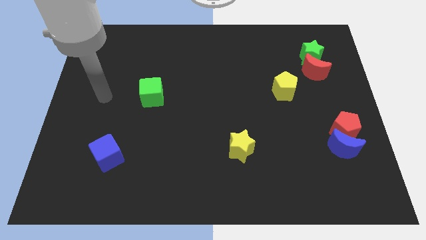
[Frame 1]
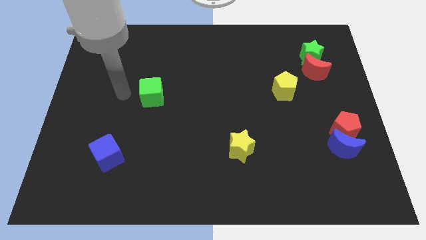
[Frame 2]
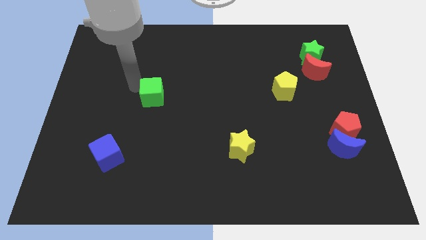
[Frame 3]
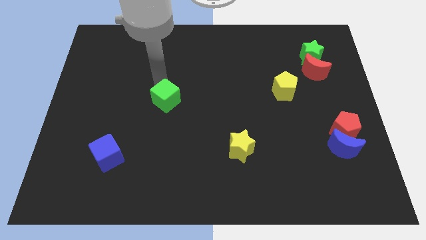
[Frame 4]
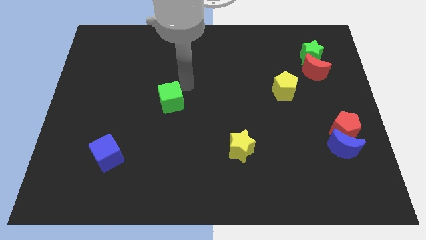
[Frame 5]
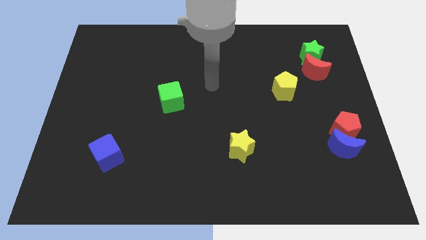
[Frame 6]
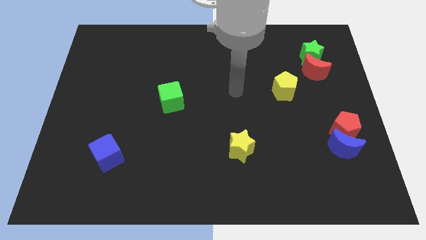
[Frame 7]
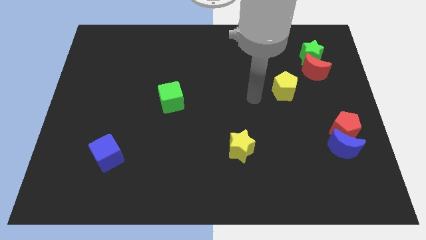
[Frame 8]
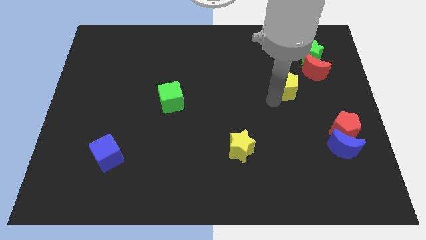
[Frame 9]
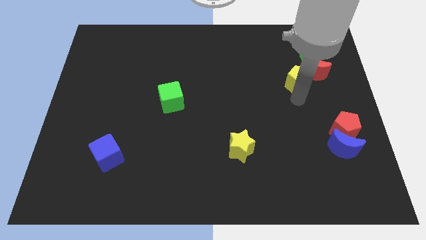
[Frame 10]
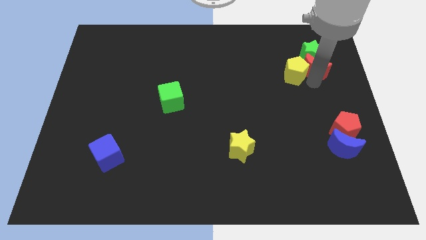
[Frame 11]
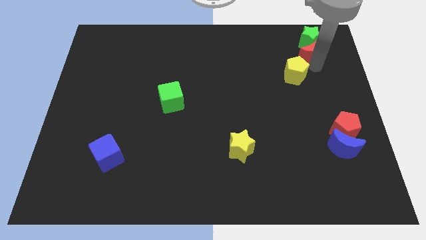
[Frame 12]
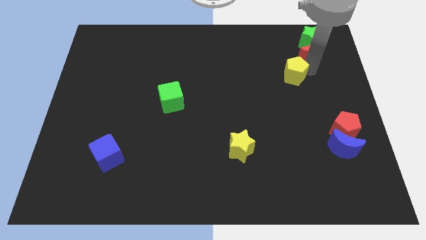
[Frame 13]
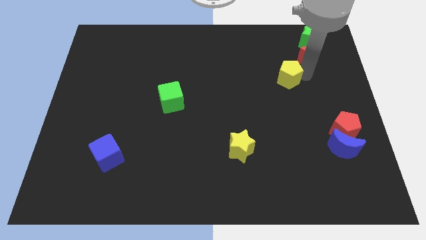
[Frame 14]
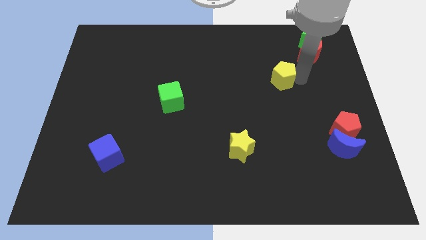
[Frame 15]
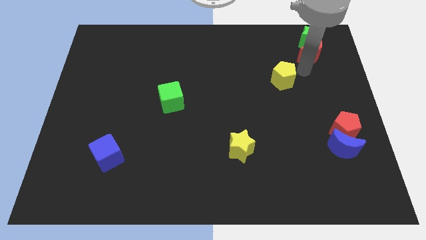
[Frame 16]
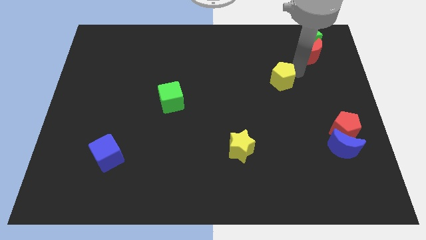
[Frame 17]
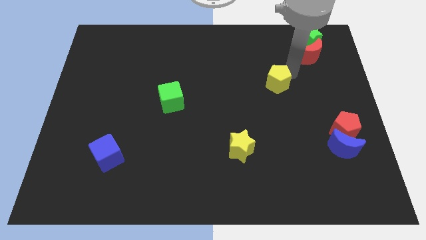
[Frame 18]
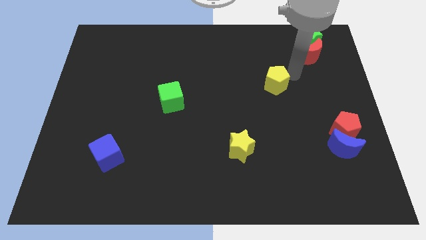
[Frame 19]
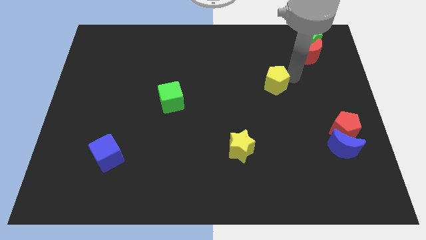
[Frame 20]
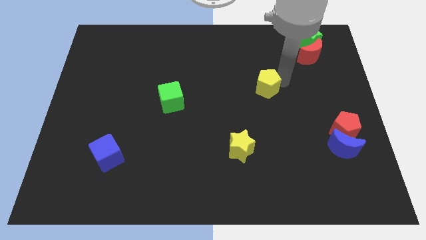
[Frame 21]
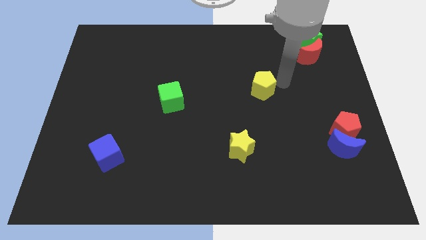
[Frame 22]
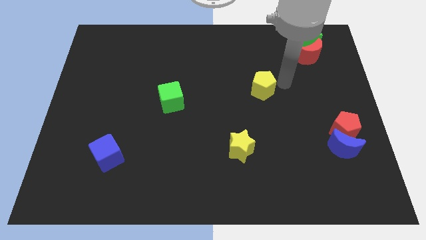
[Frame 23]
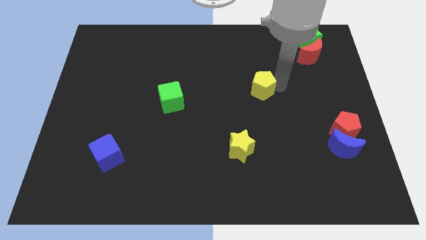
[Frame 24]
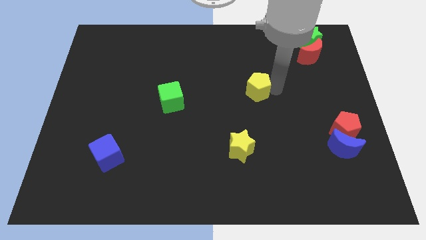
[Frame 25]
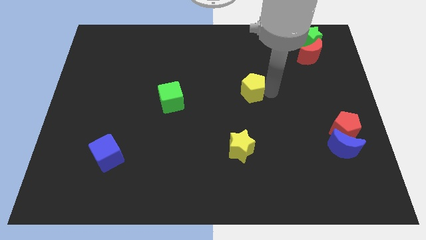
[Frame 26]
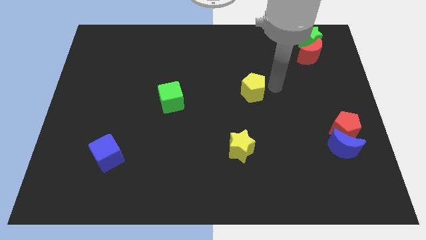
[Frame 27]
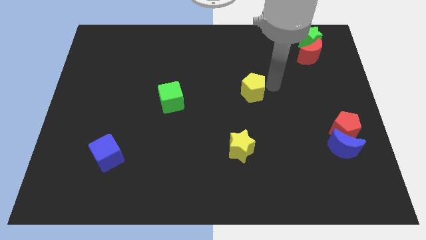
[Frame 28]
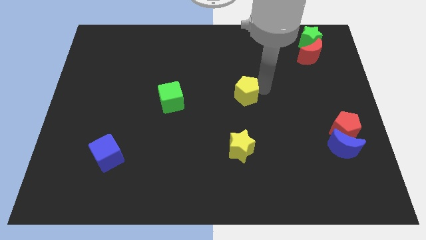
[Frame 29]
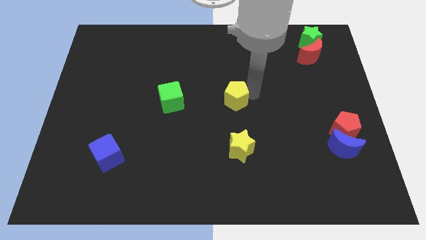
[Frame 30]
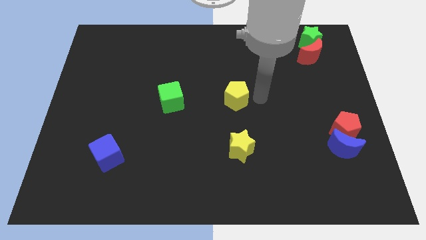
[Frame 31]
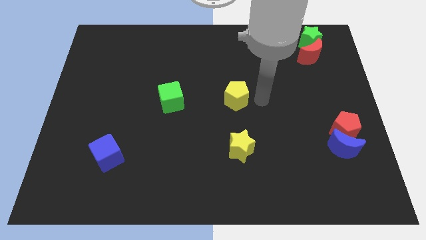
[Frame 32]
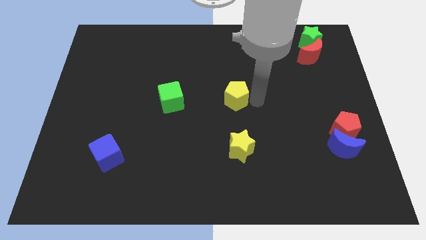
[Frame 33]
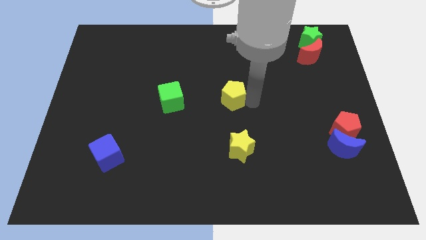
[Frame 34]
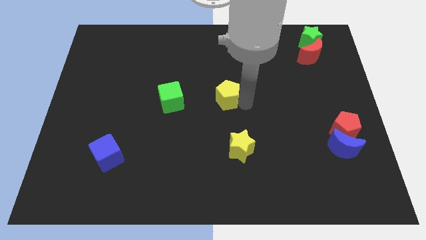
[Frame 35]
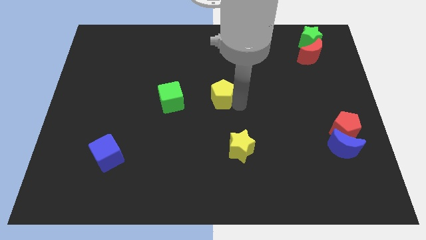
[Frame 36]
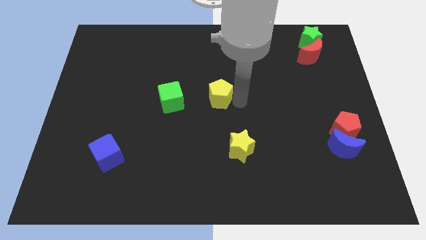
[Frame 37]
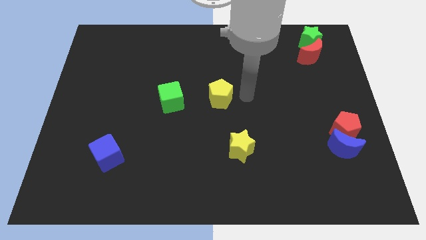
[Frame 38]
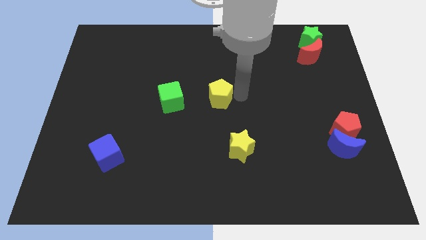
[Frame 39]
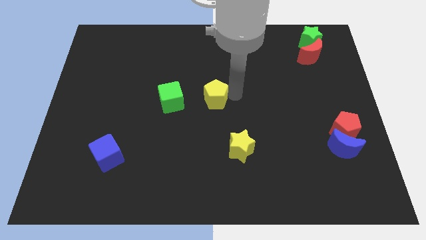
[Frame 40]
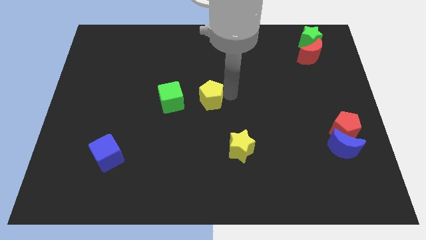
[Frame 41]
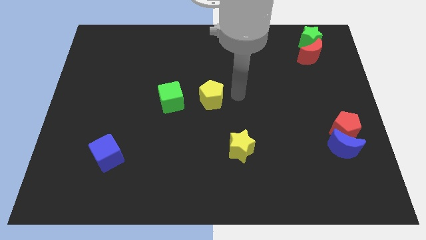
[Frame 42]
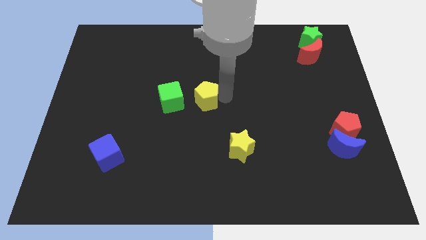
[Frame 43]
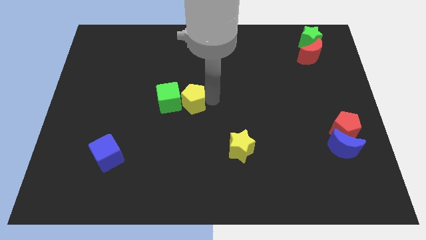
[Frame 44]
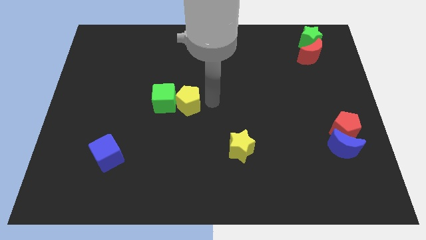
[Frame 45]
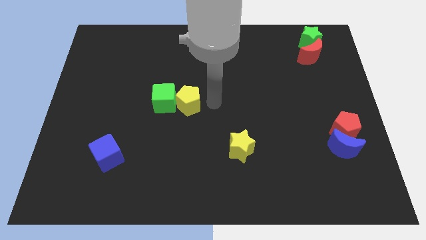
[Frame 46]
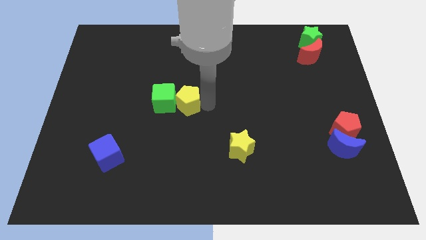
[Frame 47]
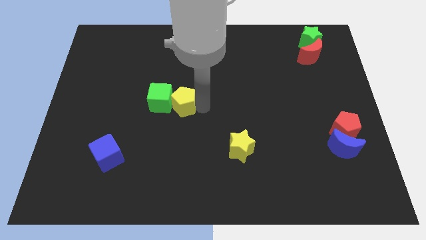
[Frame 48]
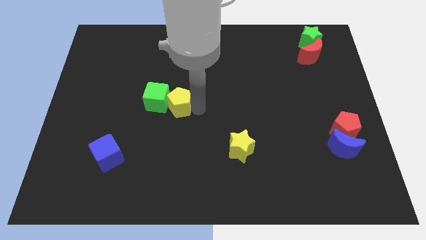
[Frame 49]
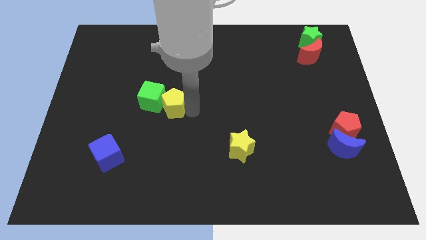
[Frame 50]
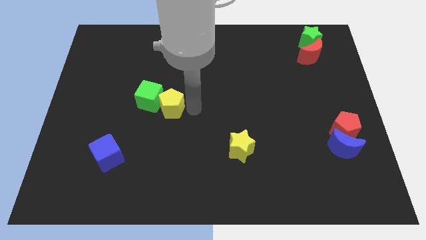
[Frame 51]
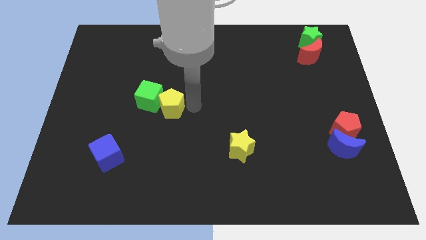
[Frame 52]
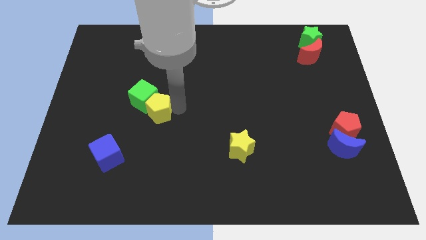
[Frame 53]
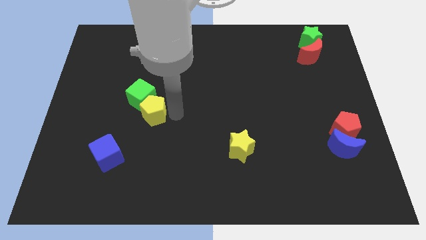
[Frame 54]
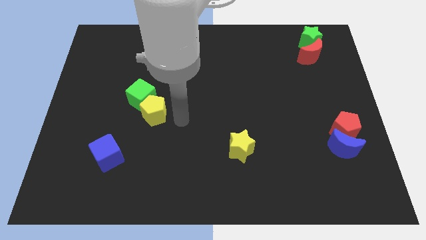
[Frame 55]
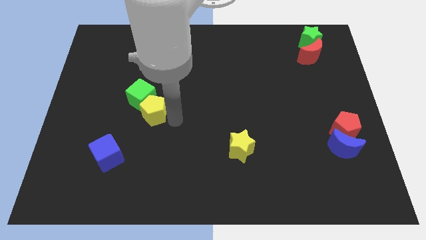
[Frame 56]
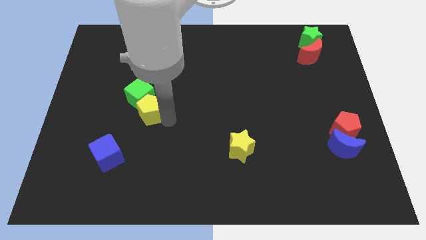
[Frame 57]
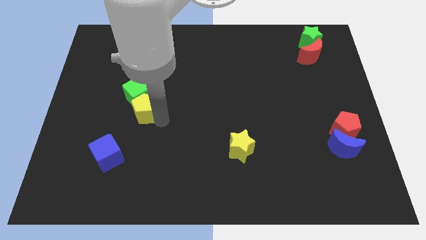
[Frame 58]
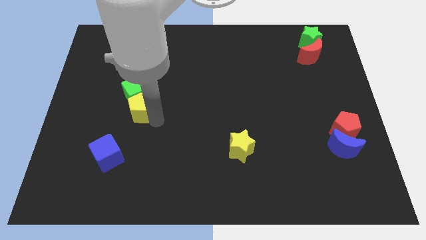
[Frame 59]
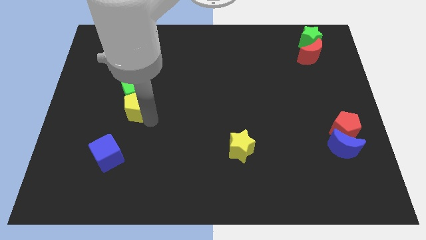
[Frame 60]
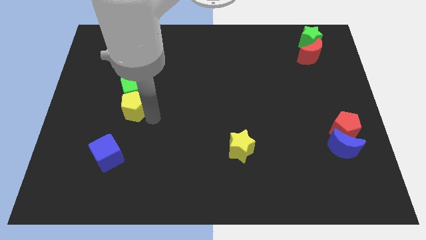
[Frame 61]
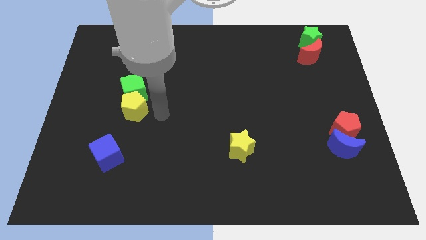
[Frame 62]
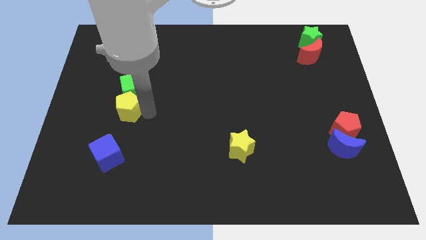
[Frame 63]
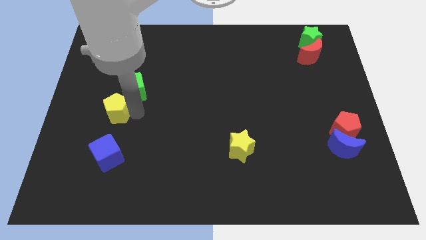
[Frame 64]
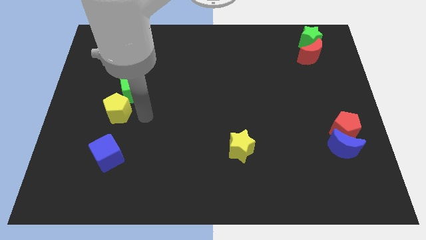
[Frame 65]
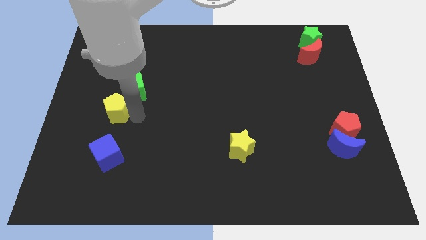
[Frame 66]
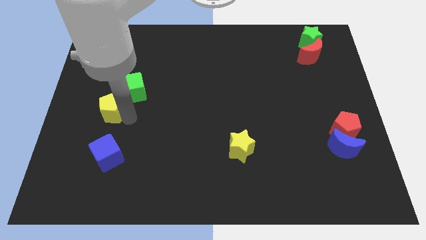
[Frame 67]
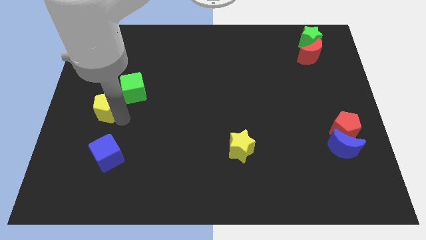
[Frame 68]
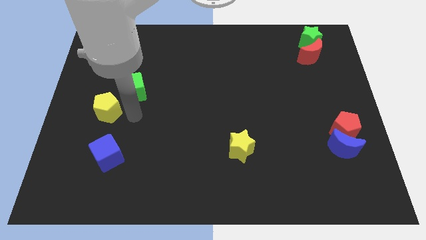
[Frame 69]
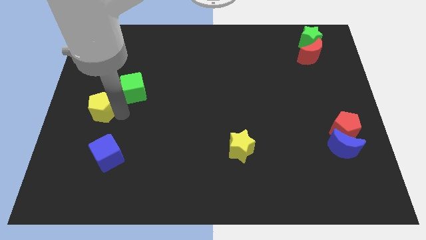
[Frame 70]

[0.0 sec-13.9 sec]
move the yellow pentagon to the left side
